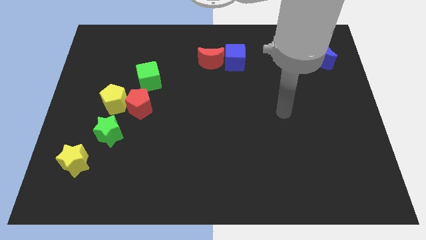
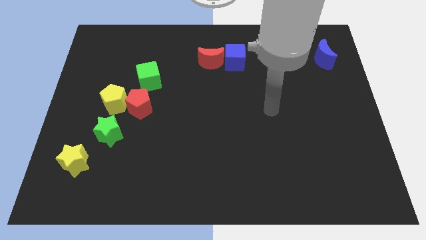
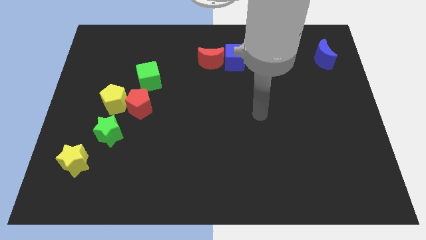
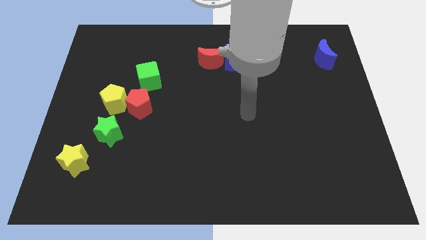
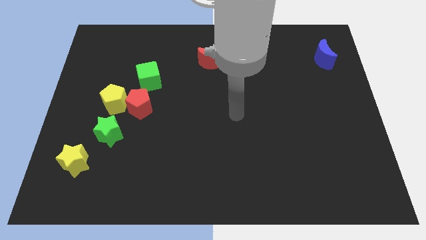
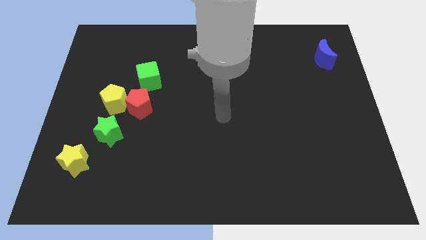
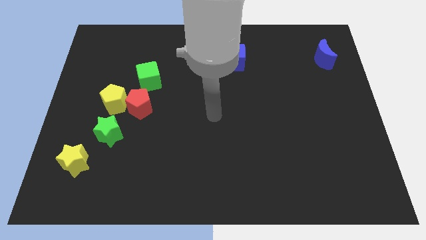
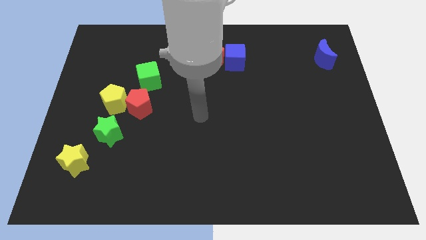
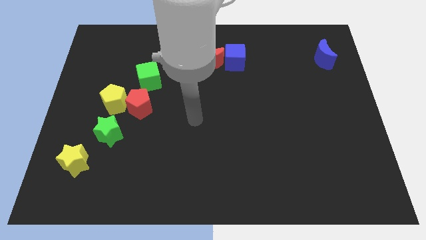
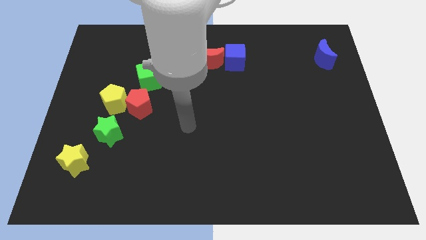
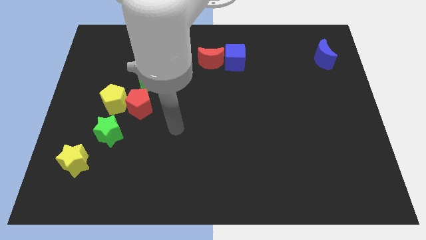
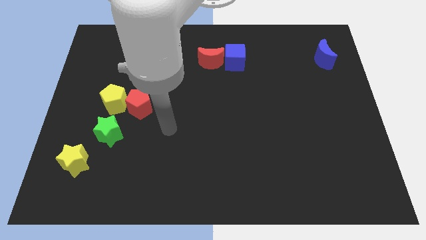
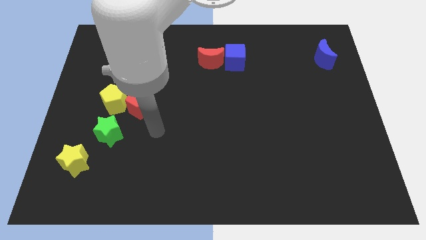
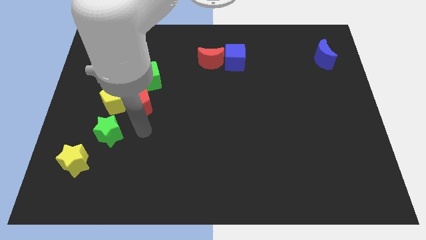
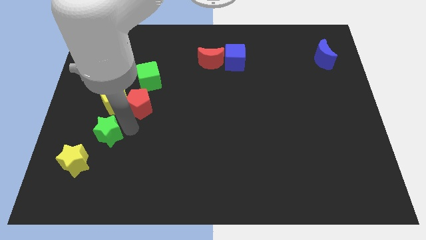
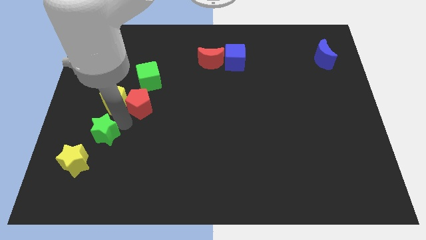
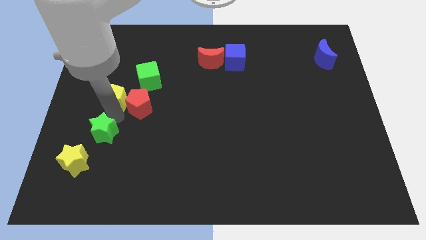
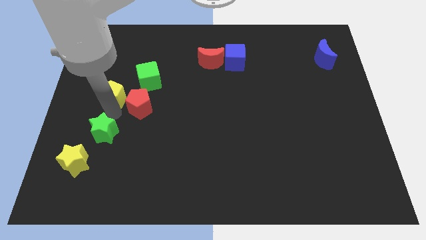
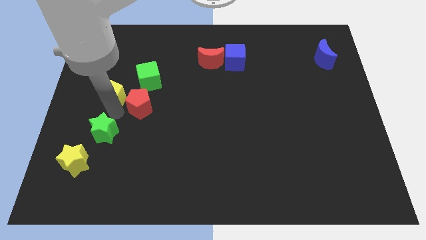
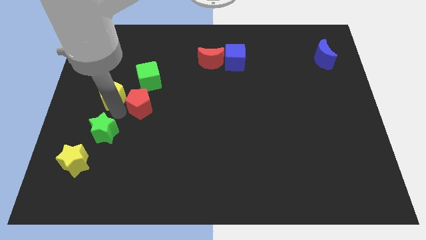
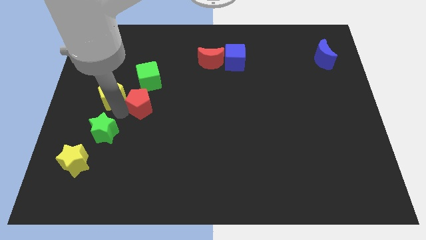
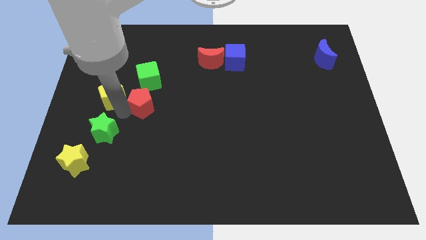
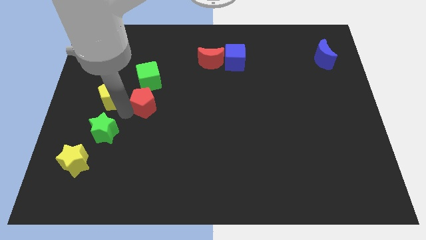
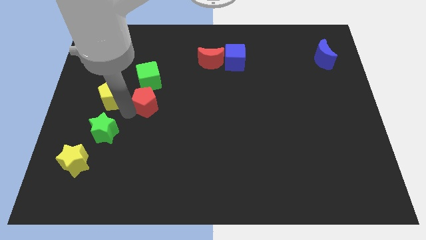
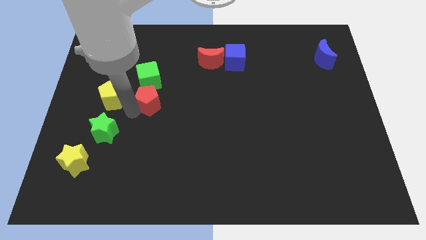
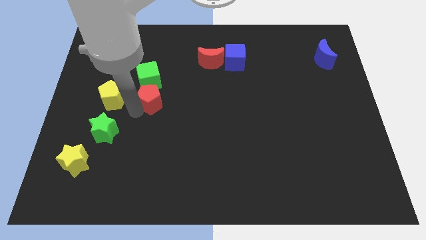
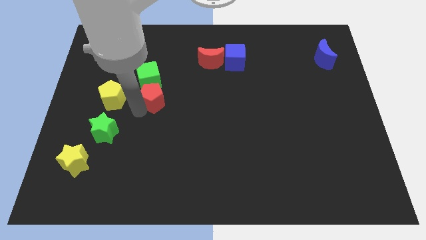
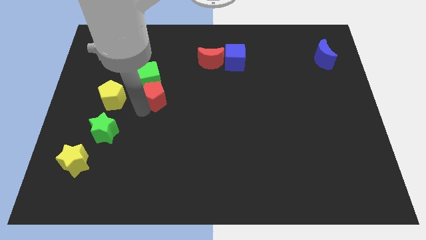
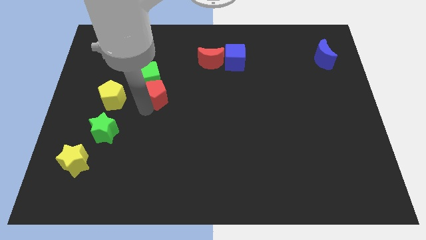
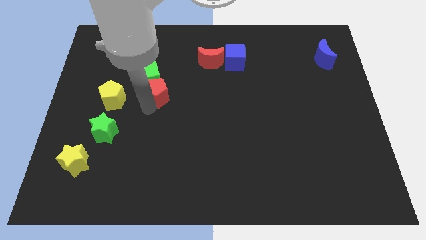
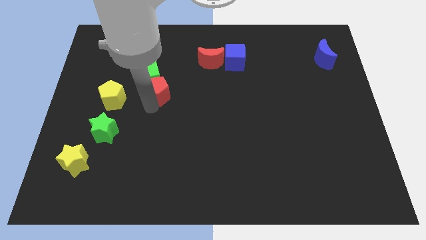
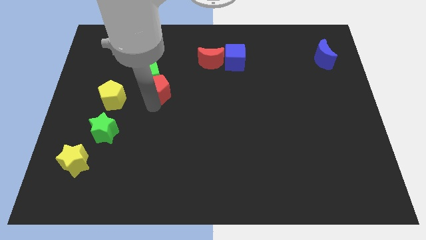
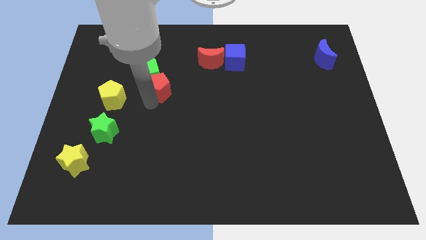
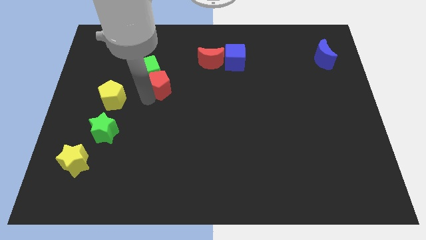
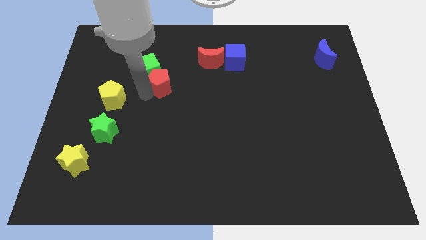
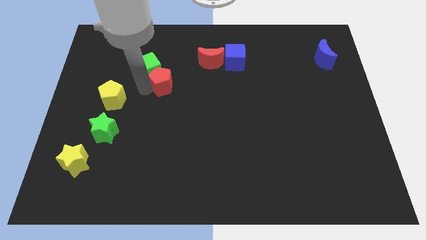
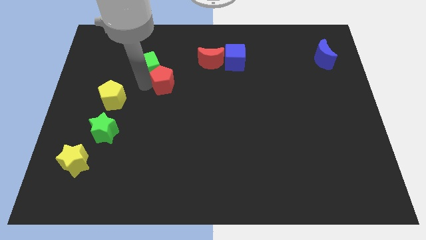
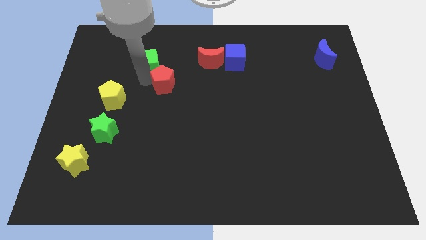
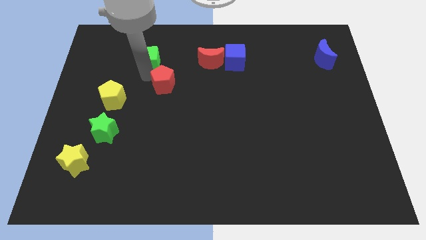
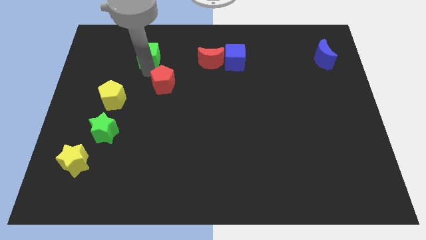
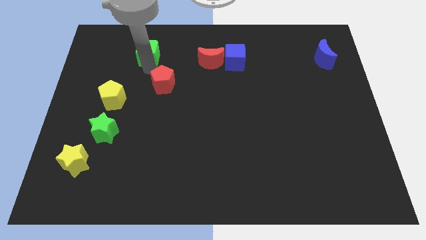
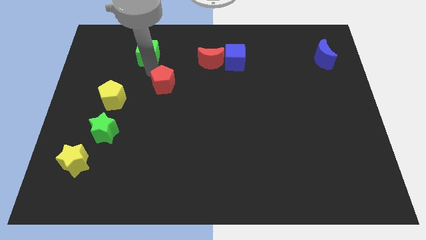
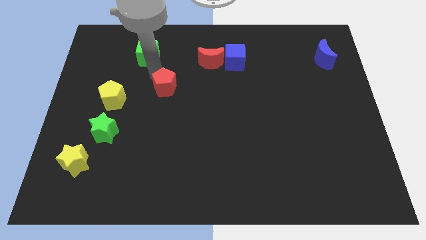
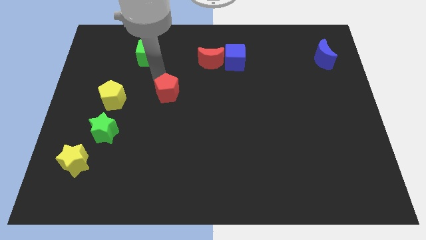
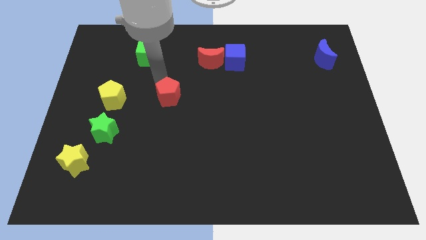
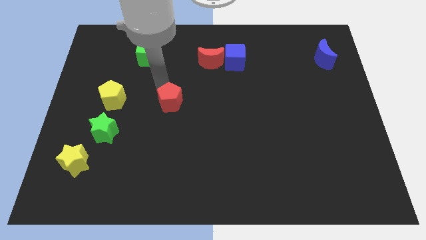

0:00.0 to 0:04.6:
move the red pentagon to the right a little bit

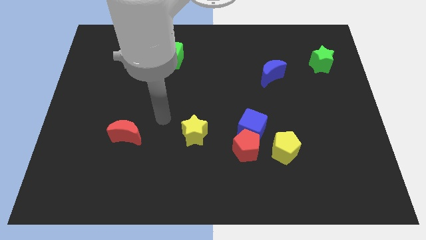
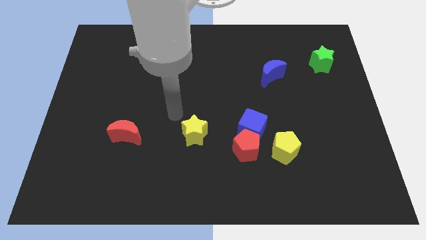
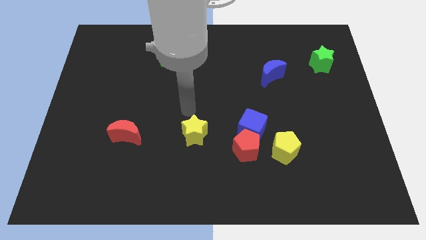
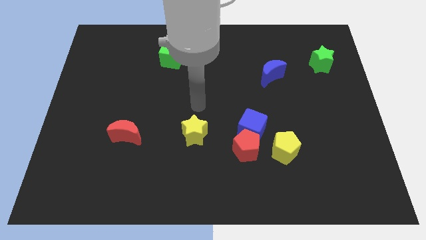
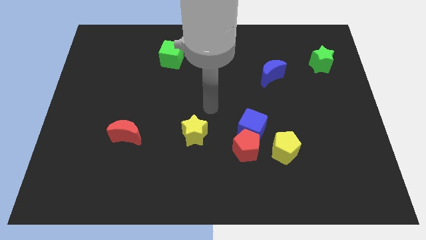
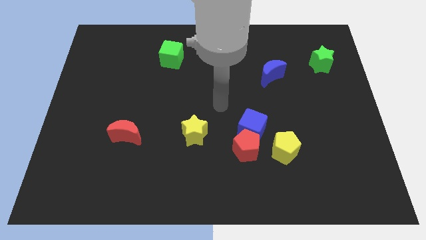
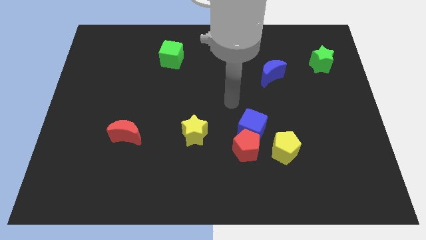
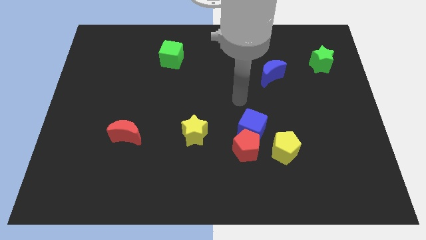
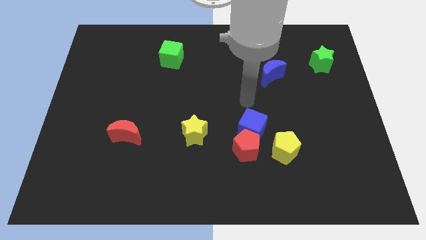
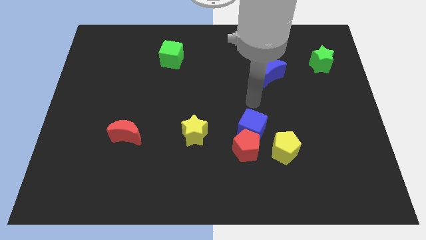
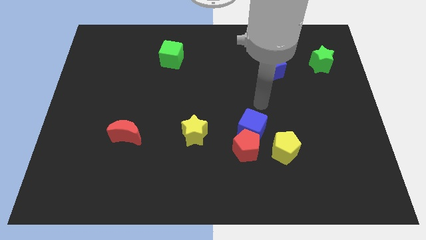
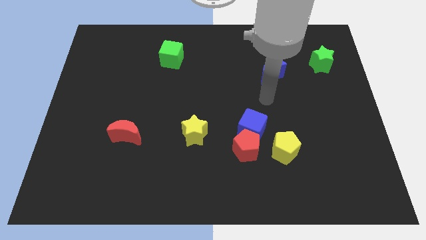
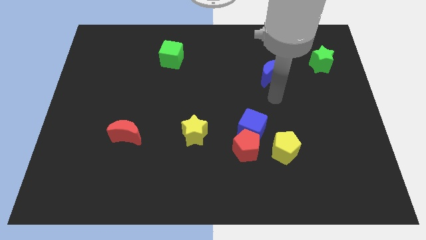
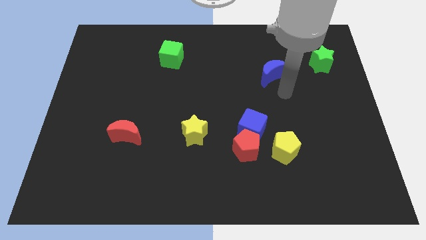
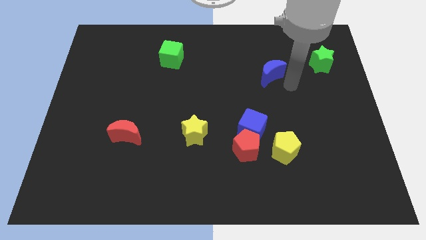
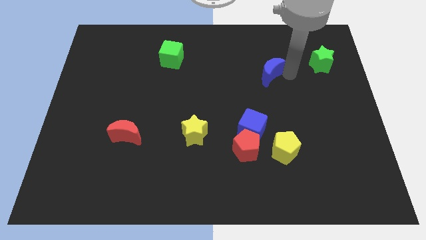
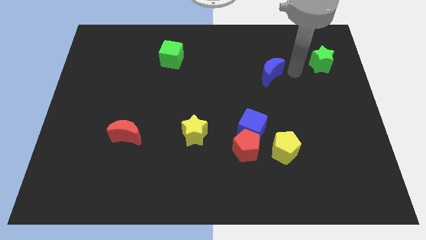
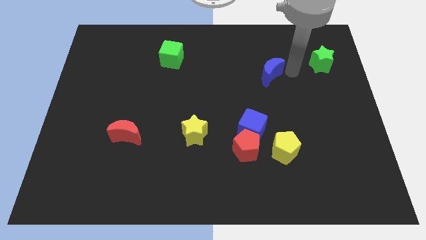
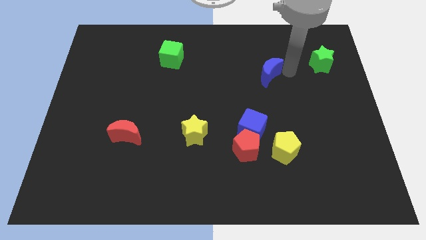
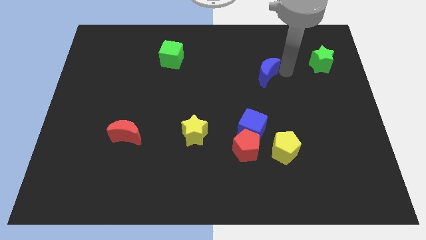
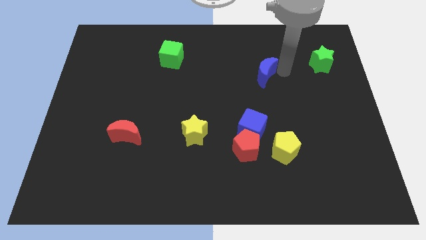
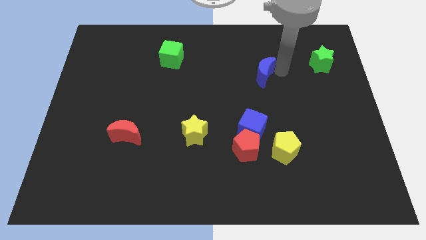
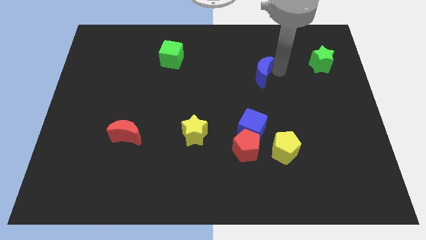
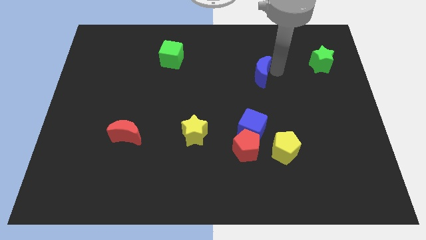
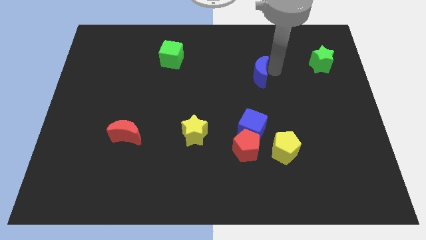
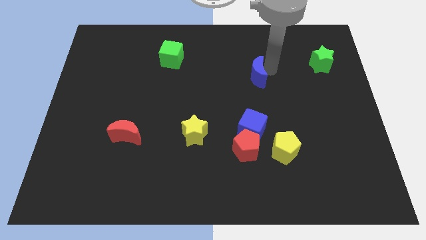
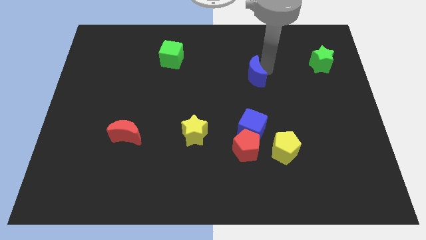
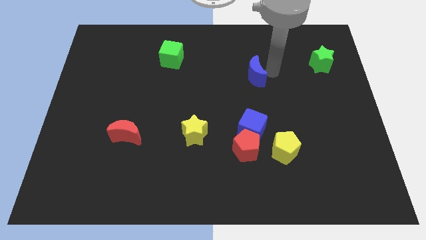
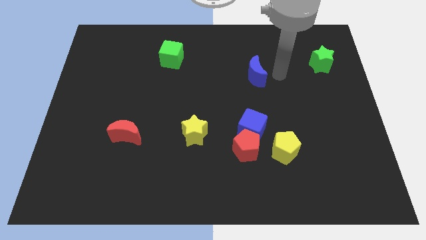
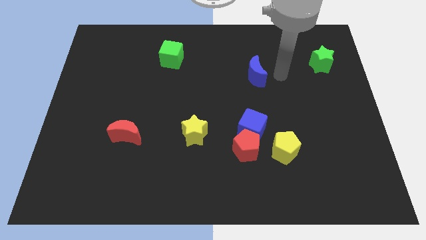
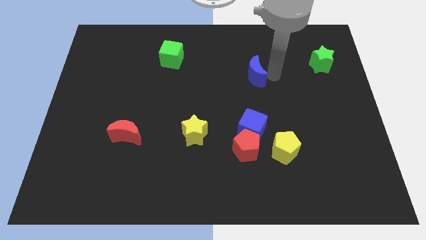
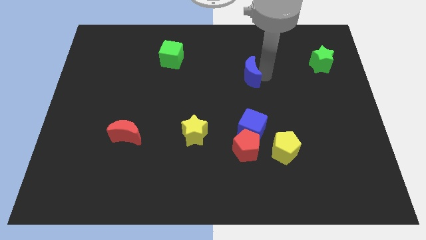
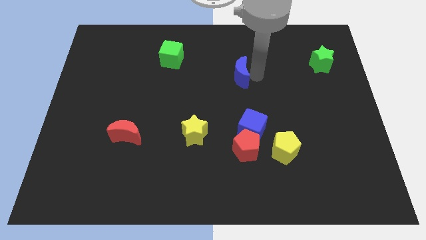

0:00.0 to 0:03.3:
slightly push the blue moon left
